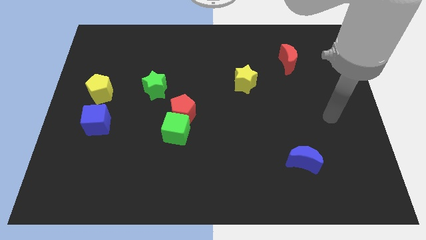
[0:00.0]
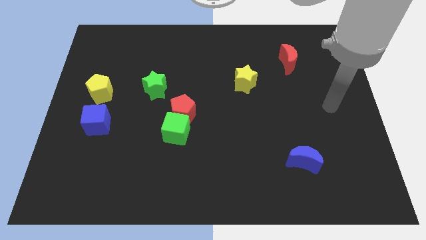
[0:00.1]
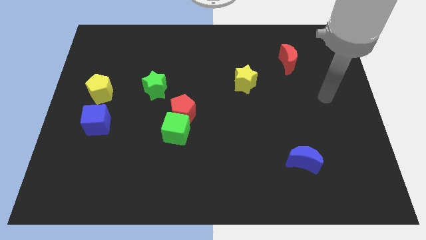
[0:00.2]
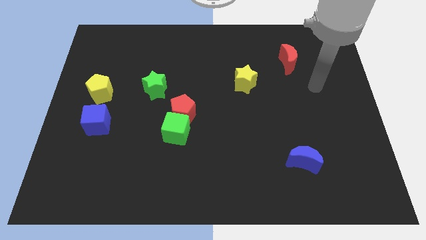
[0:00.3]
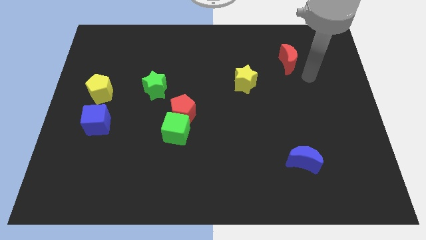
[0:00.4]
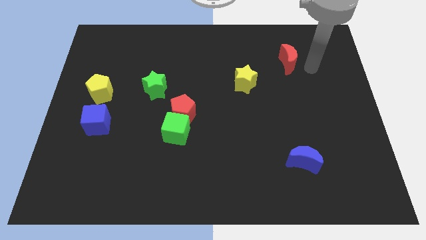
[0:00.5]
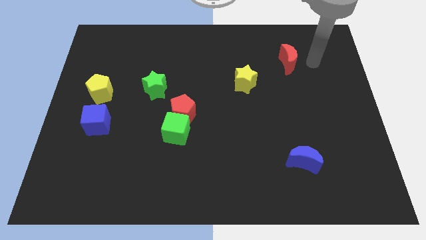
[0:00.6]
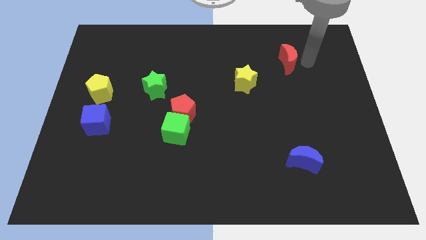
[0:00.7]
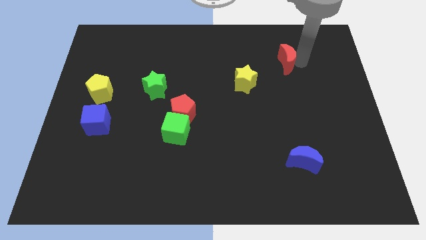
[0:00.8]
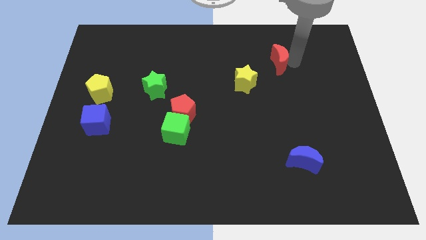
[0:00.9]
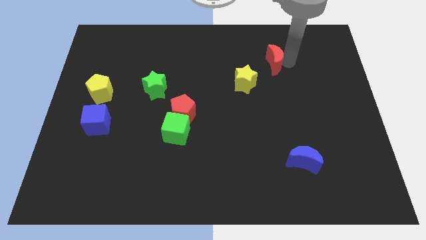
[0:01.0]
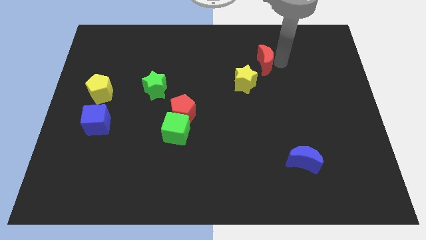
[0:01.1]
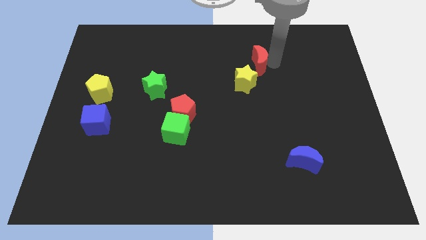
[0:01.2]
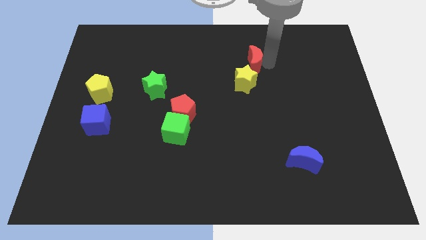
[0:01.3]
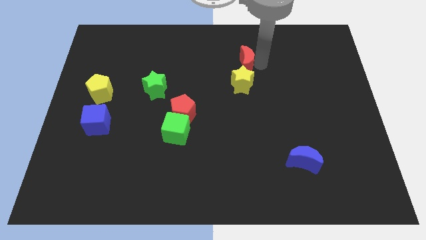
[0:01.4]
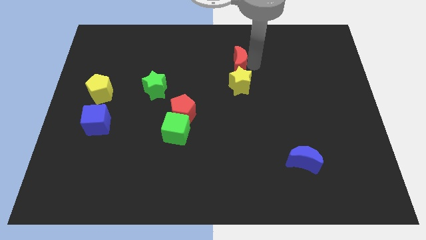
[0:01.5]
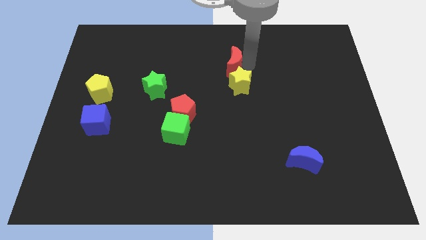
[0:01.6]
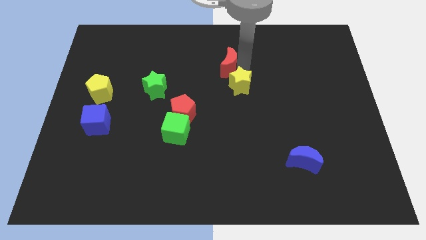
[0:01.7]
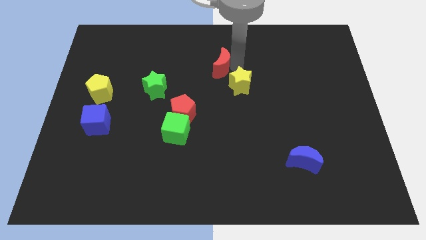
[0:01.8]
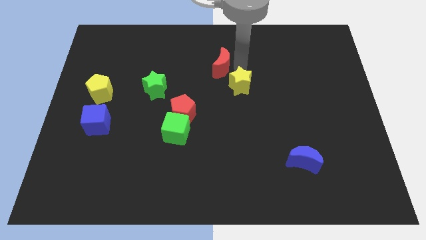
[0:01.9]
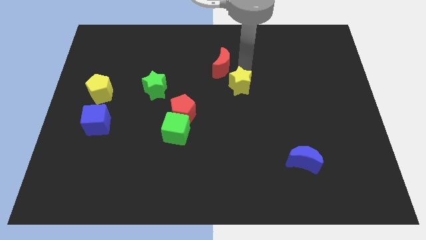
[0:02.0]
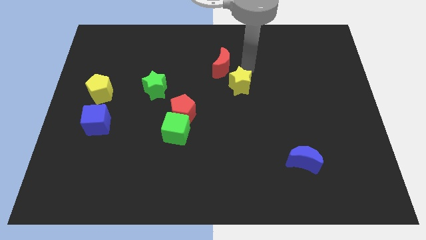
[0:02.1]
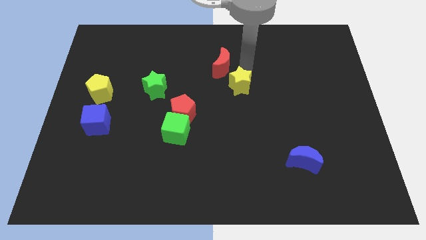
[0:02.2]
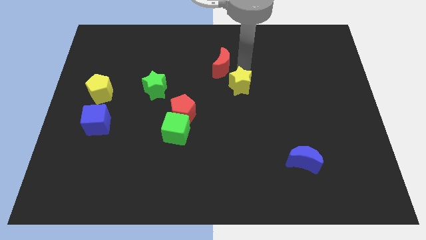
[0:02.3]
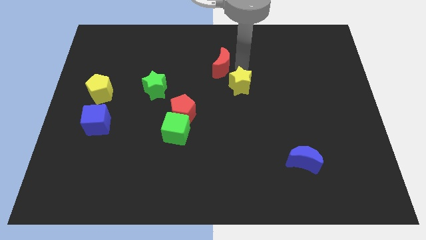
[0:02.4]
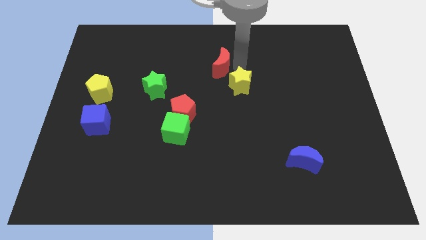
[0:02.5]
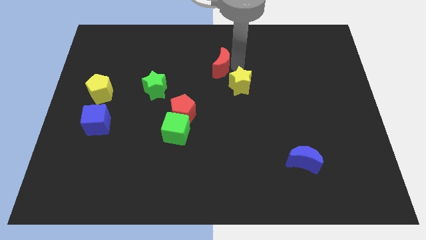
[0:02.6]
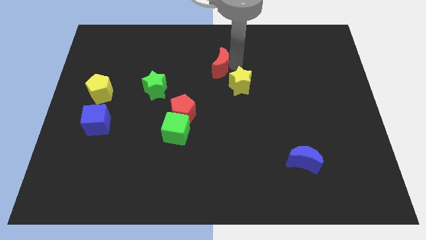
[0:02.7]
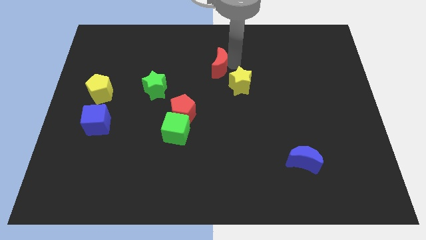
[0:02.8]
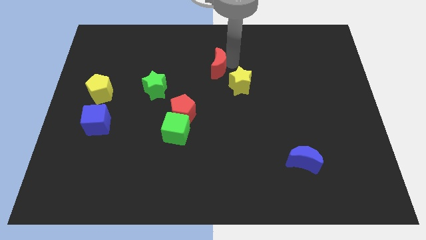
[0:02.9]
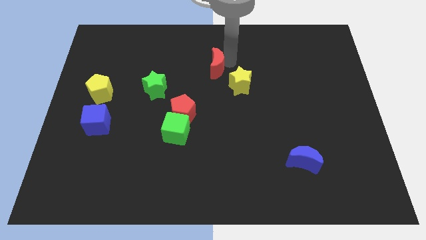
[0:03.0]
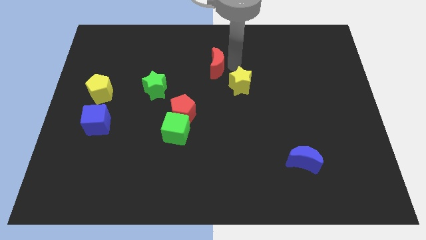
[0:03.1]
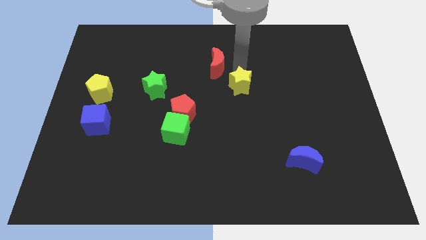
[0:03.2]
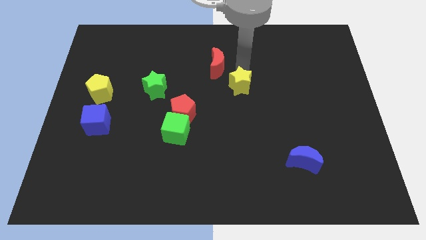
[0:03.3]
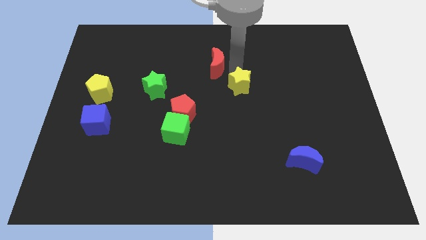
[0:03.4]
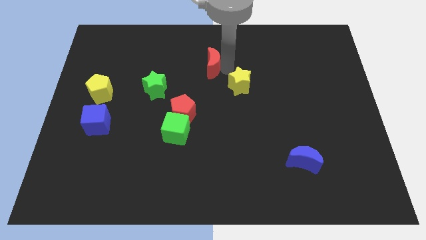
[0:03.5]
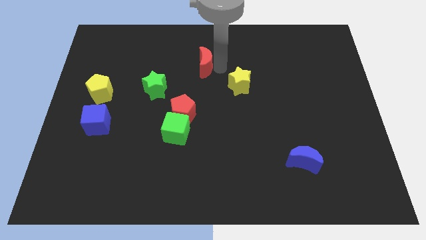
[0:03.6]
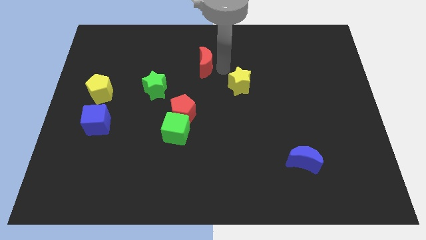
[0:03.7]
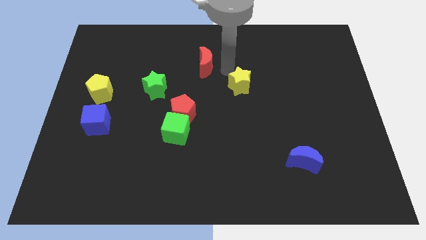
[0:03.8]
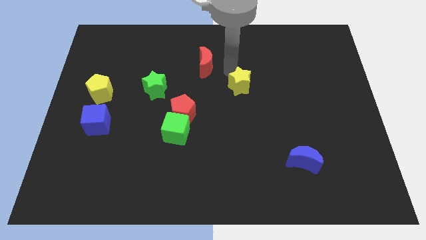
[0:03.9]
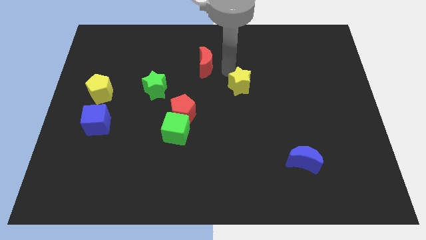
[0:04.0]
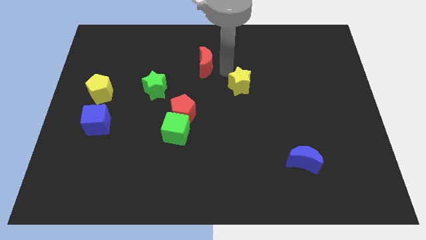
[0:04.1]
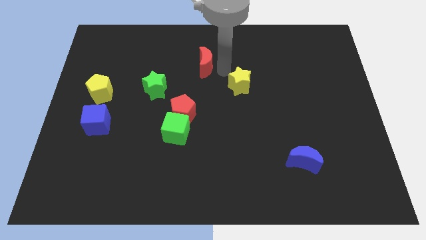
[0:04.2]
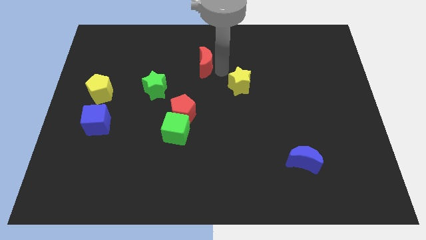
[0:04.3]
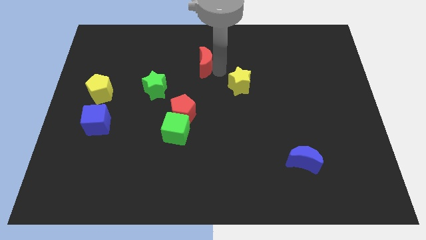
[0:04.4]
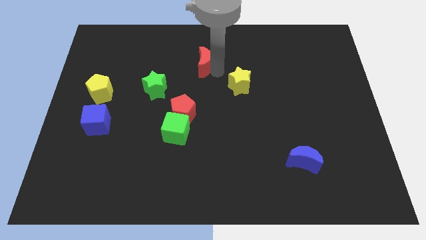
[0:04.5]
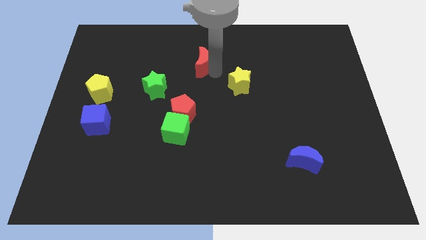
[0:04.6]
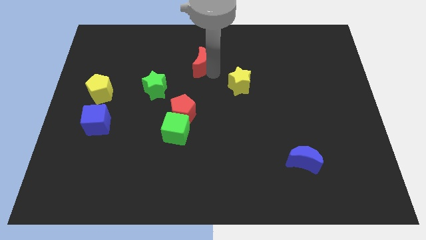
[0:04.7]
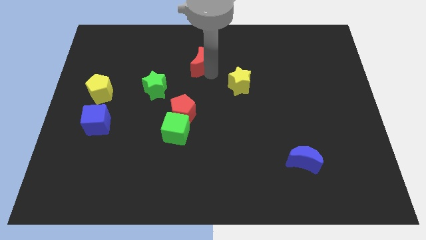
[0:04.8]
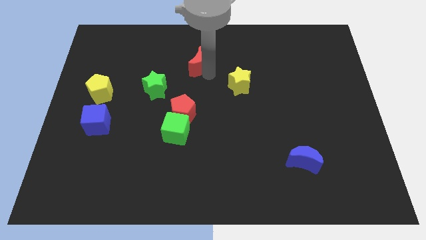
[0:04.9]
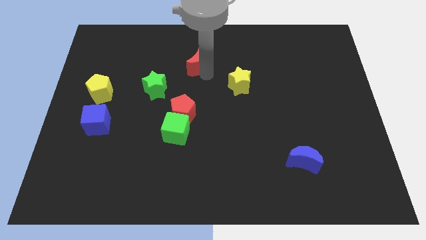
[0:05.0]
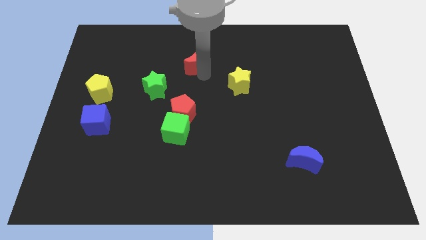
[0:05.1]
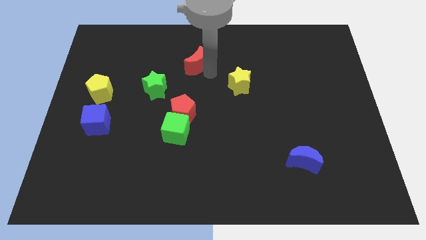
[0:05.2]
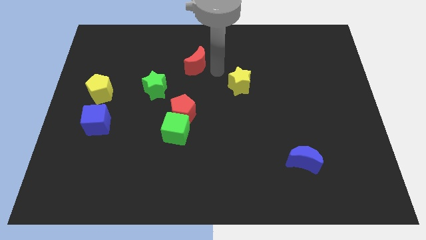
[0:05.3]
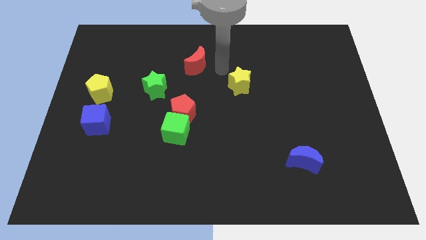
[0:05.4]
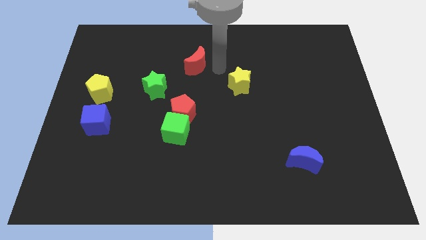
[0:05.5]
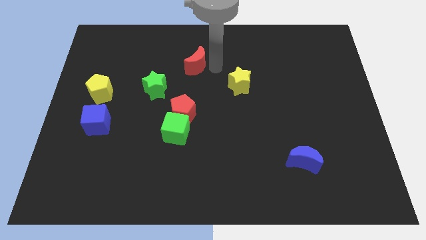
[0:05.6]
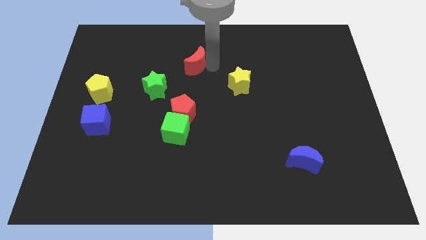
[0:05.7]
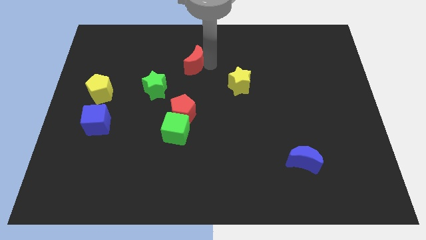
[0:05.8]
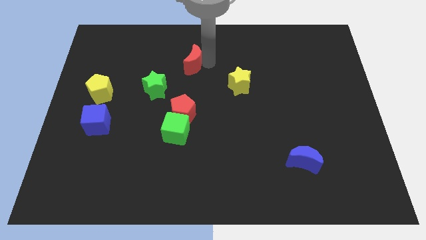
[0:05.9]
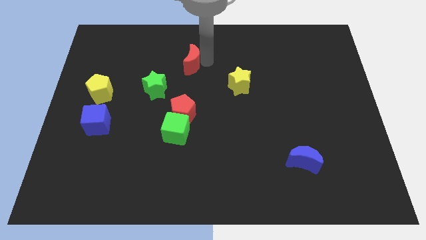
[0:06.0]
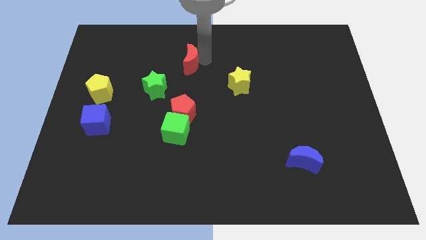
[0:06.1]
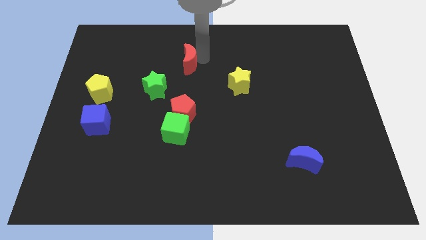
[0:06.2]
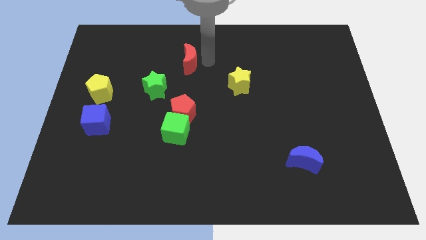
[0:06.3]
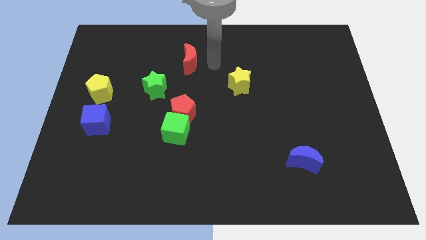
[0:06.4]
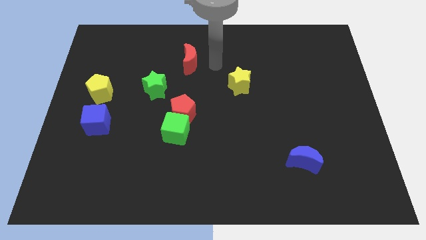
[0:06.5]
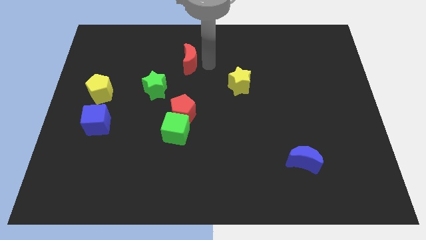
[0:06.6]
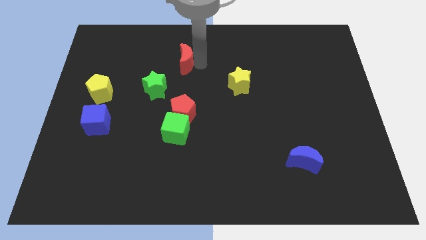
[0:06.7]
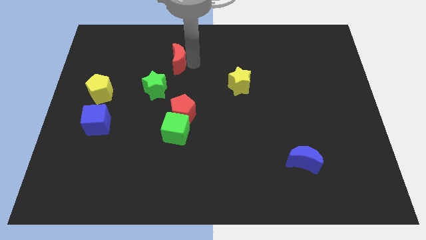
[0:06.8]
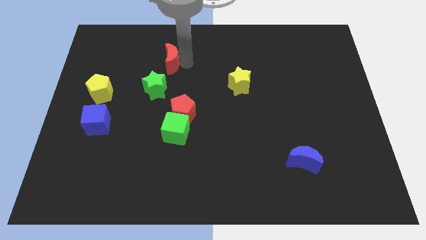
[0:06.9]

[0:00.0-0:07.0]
slide the red moon to the top of the green star
